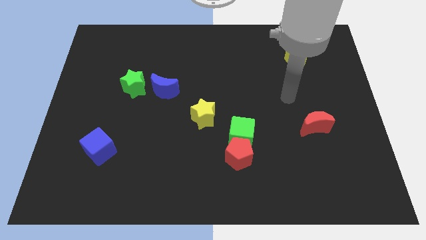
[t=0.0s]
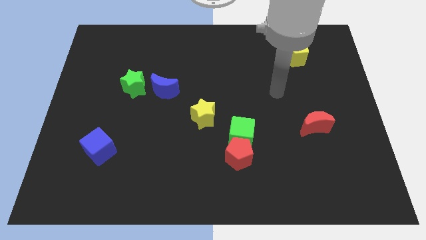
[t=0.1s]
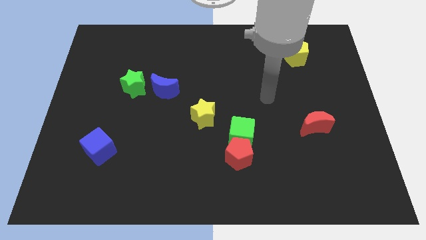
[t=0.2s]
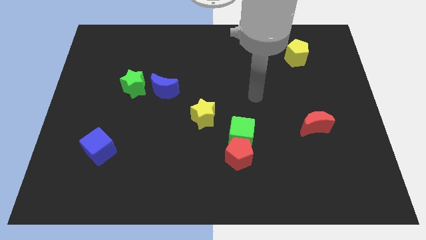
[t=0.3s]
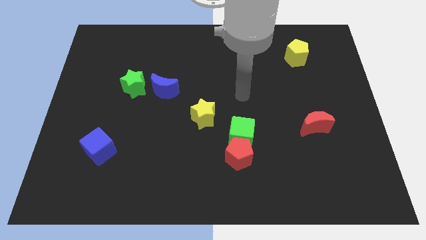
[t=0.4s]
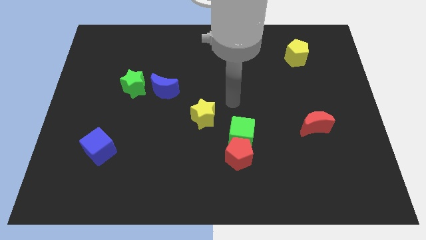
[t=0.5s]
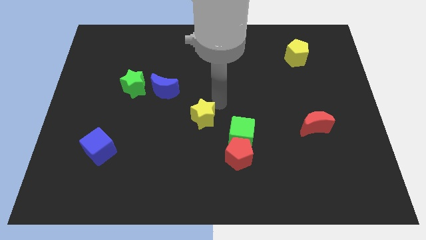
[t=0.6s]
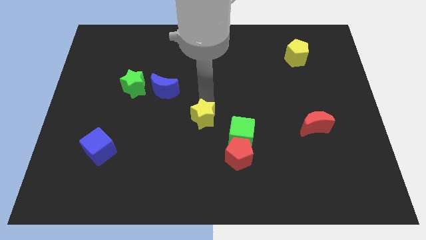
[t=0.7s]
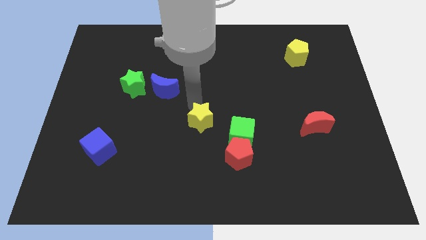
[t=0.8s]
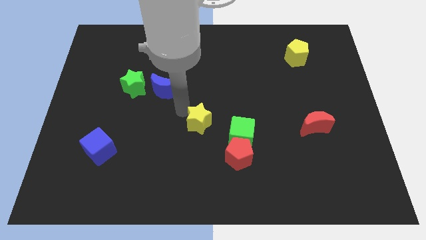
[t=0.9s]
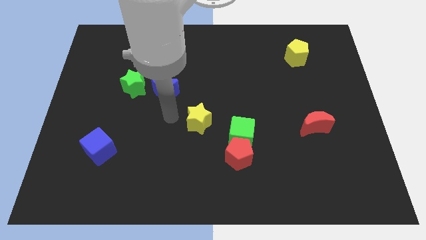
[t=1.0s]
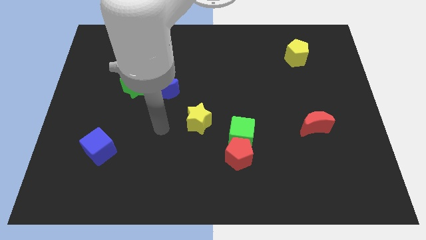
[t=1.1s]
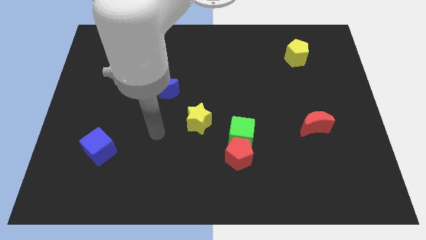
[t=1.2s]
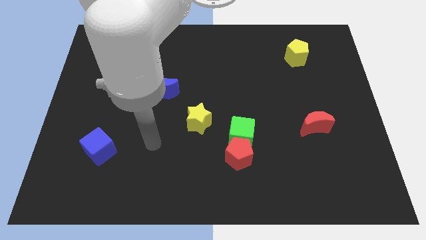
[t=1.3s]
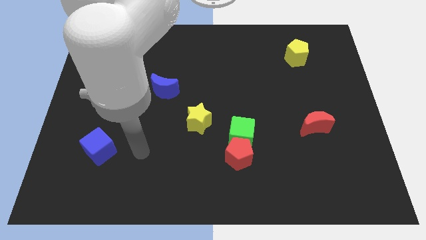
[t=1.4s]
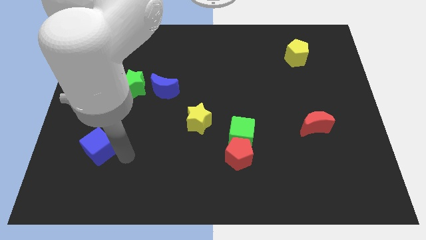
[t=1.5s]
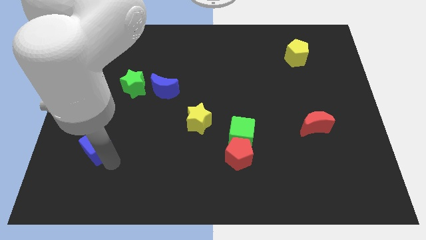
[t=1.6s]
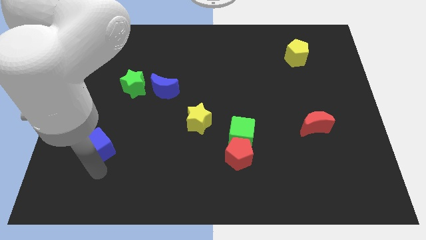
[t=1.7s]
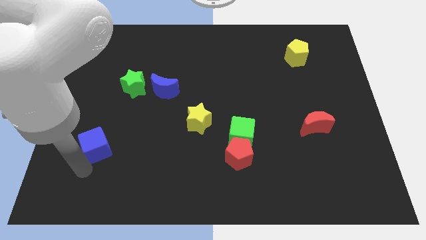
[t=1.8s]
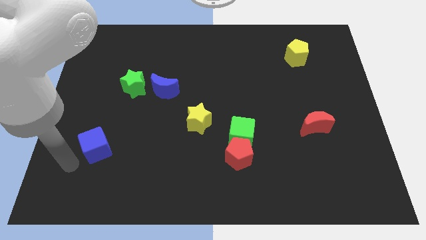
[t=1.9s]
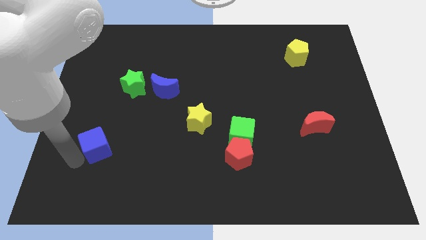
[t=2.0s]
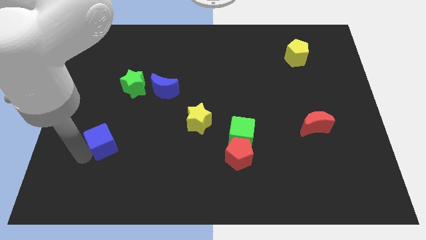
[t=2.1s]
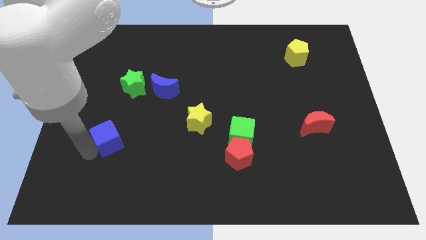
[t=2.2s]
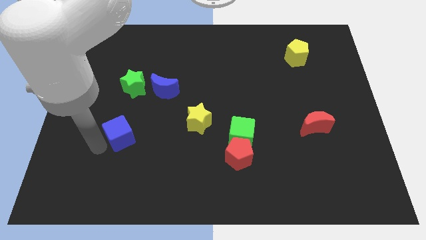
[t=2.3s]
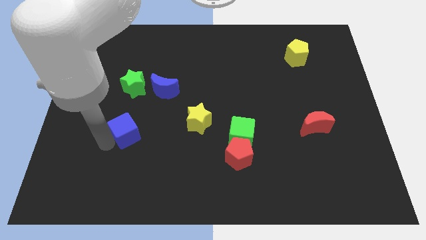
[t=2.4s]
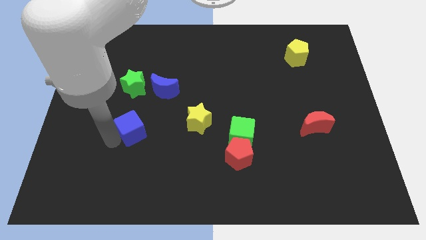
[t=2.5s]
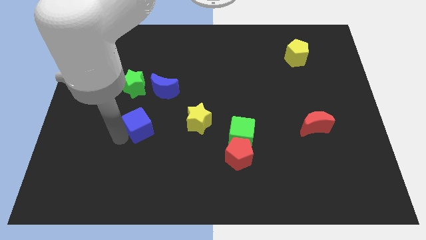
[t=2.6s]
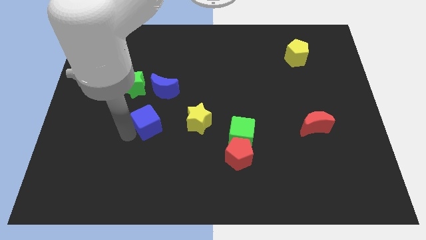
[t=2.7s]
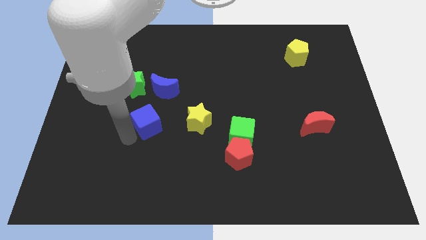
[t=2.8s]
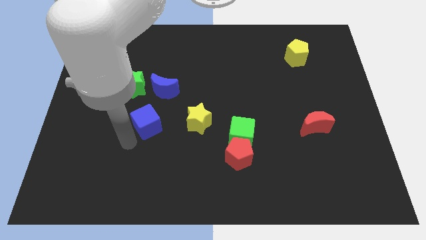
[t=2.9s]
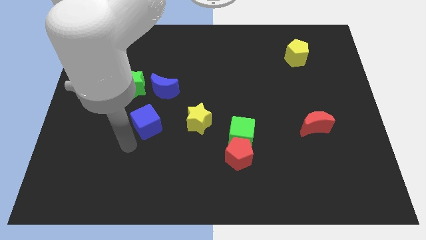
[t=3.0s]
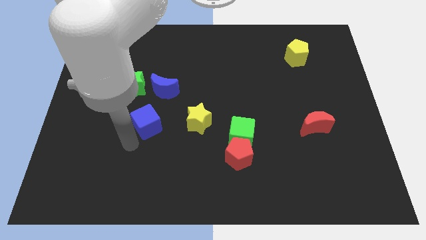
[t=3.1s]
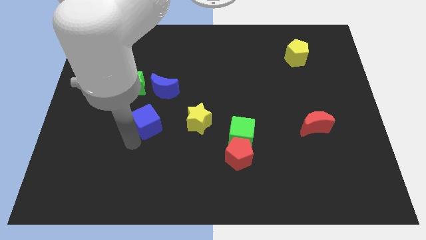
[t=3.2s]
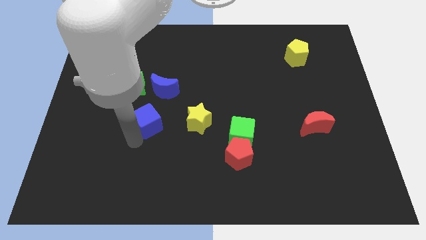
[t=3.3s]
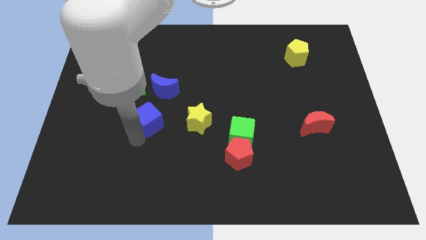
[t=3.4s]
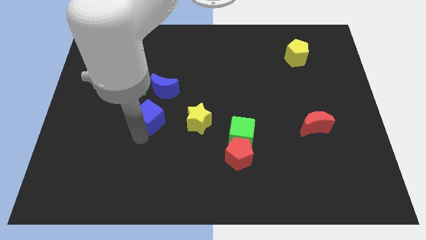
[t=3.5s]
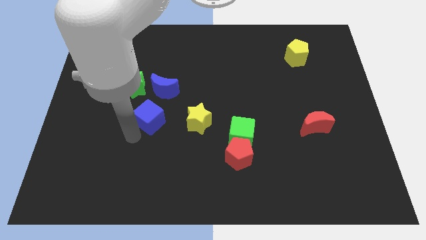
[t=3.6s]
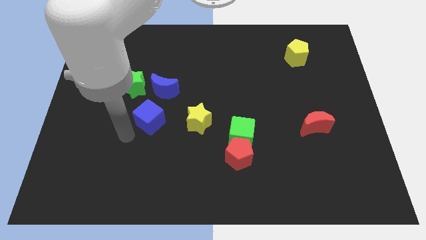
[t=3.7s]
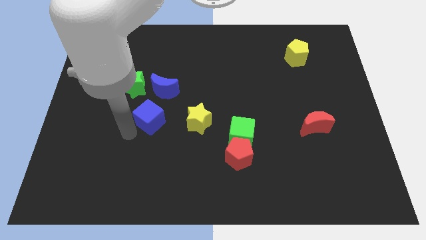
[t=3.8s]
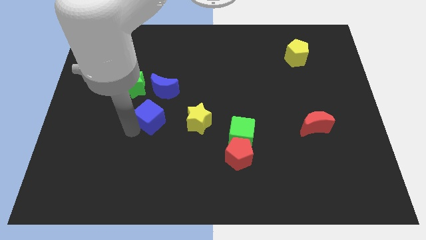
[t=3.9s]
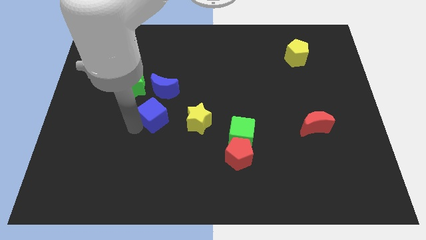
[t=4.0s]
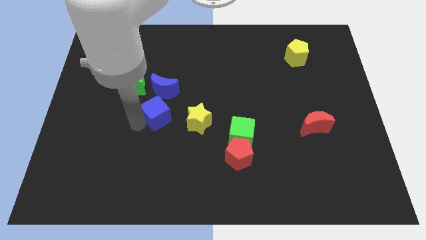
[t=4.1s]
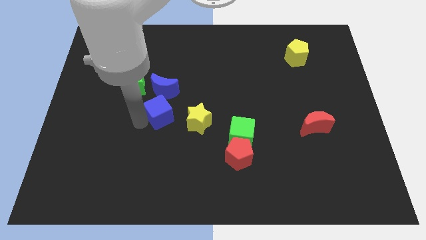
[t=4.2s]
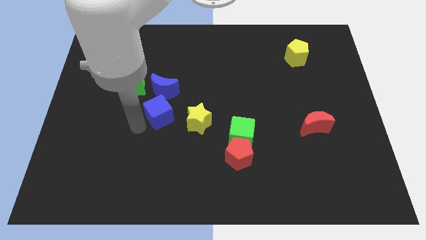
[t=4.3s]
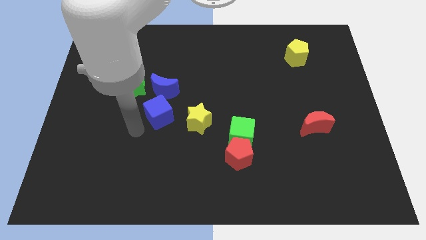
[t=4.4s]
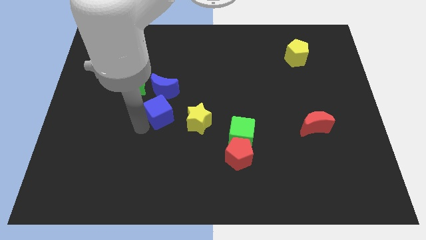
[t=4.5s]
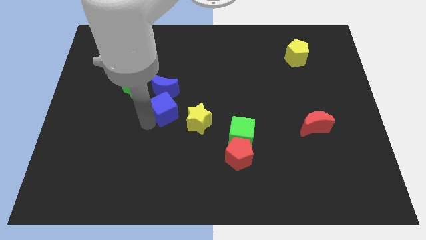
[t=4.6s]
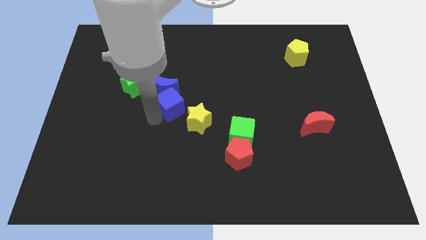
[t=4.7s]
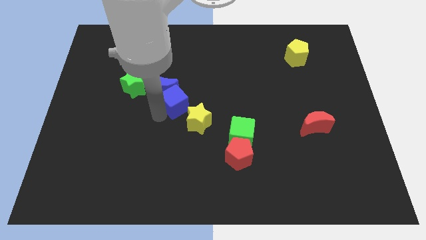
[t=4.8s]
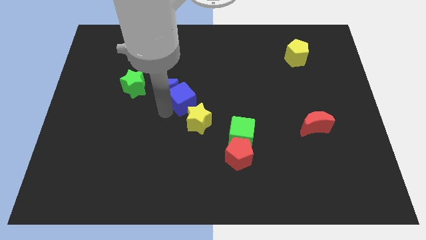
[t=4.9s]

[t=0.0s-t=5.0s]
slide the blue cube diagonally up and right

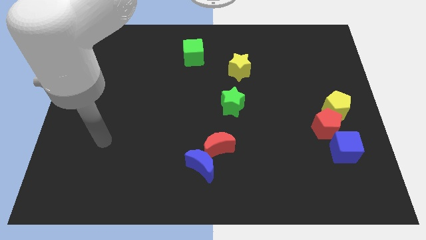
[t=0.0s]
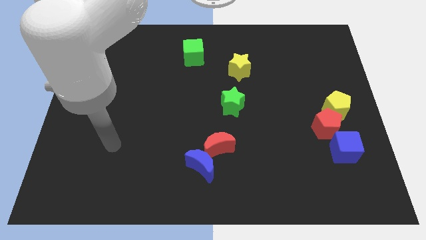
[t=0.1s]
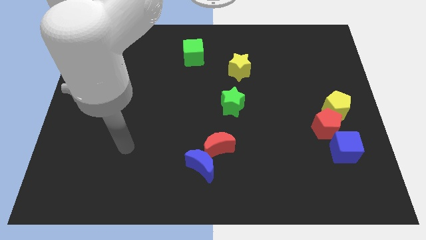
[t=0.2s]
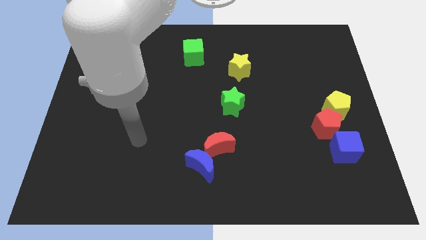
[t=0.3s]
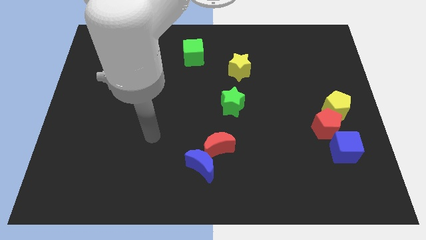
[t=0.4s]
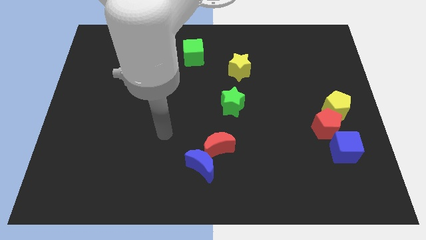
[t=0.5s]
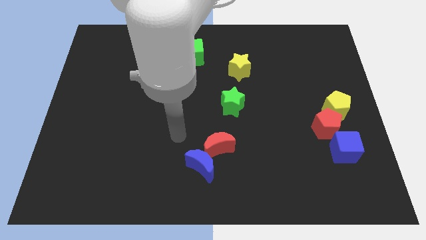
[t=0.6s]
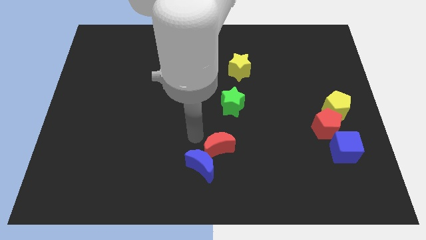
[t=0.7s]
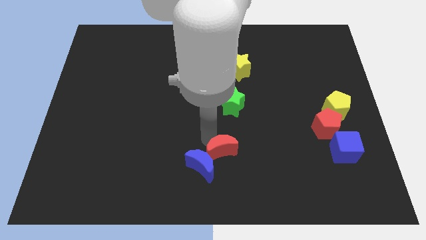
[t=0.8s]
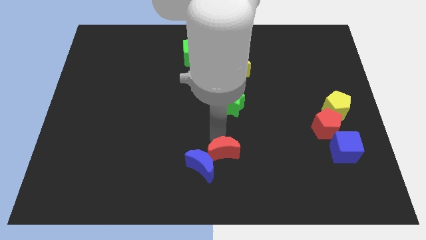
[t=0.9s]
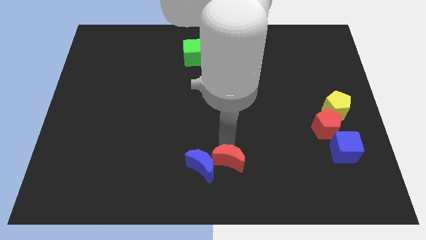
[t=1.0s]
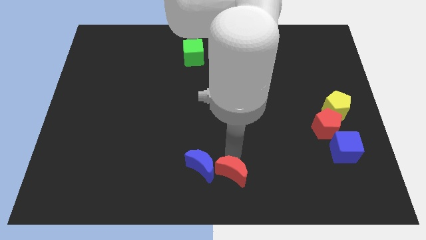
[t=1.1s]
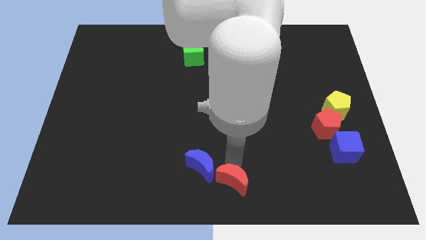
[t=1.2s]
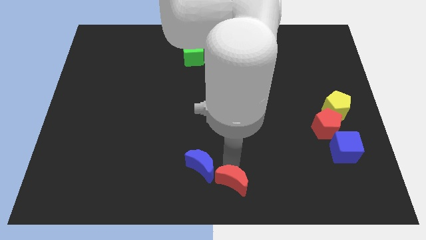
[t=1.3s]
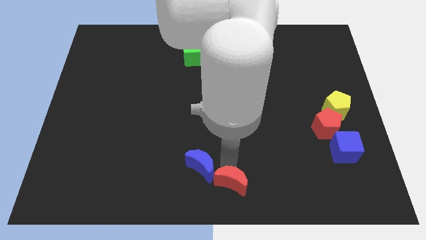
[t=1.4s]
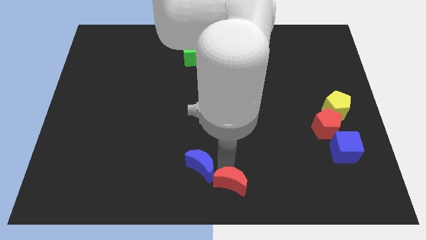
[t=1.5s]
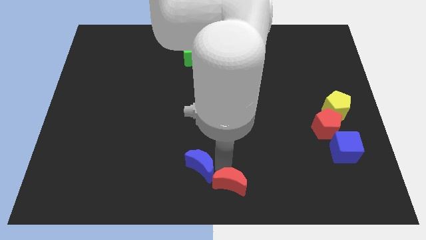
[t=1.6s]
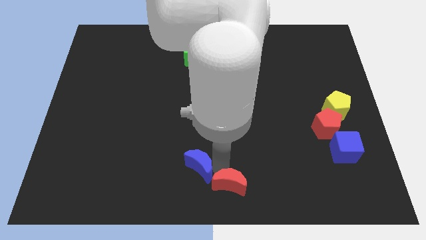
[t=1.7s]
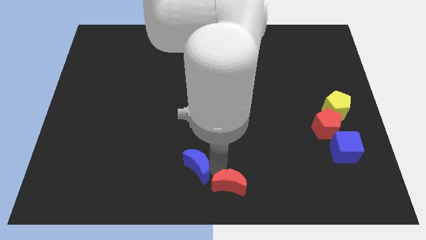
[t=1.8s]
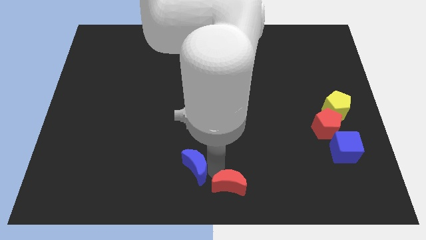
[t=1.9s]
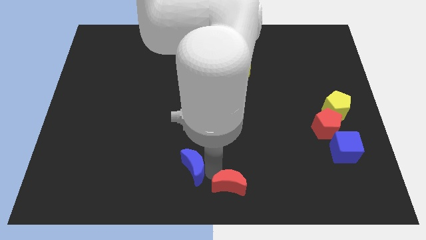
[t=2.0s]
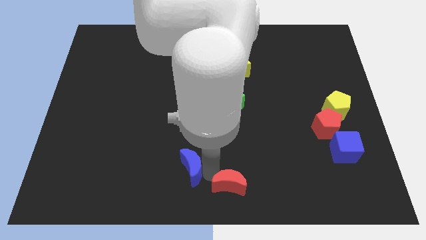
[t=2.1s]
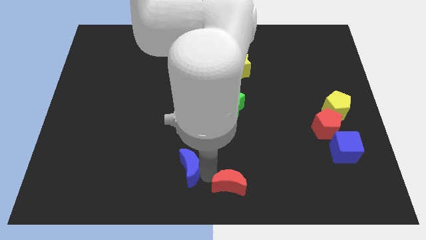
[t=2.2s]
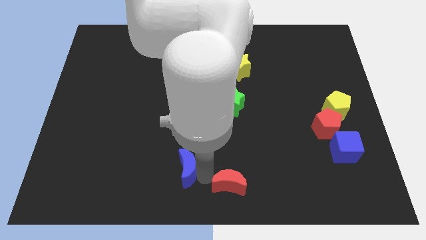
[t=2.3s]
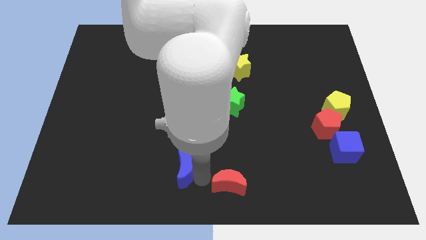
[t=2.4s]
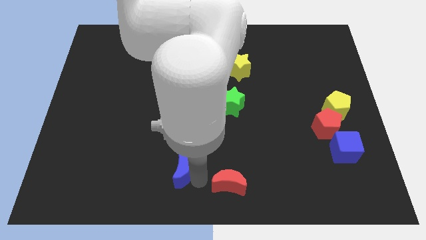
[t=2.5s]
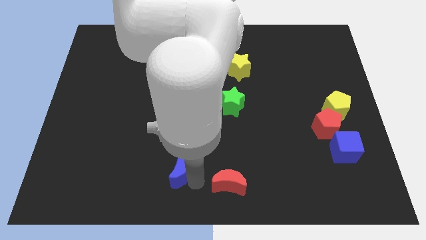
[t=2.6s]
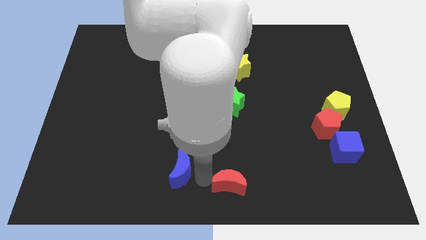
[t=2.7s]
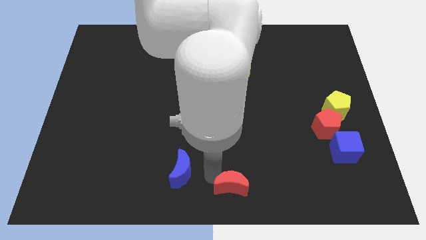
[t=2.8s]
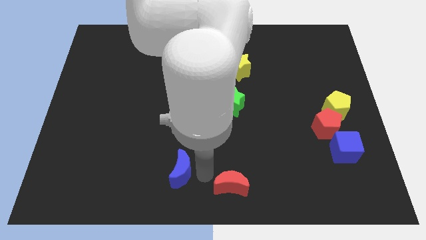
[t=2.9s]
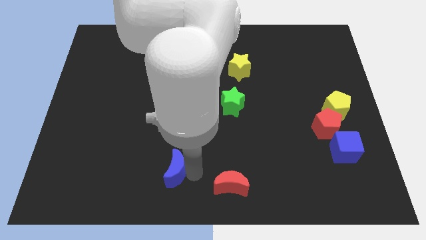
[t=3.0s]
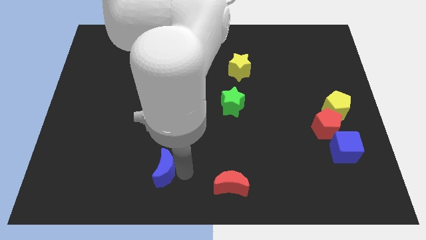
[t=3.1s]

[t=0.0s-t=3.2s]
push the blue moon left a bit

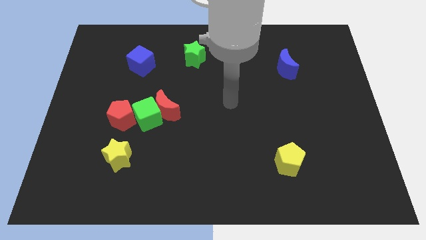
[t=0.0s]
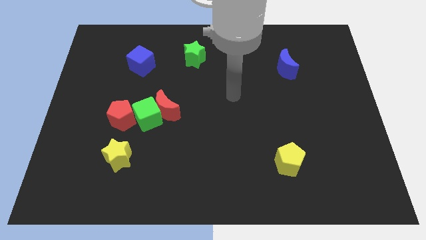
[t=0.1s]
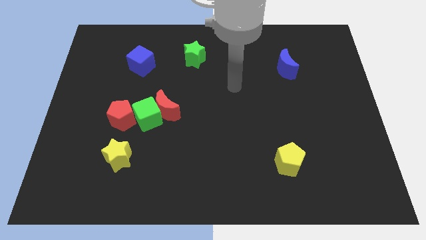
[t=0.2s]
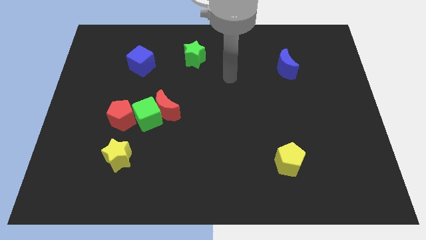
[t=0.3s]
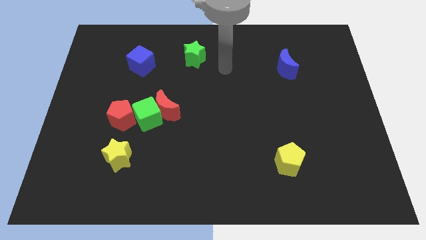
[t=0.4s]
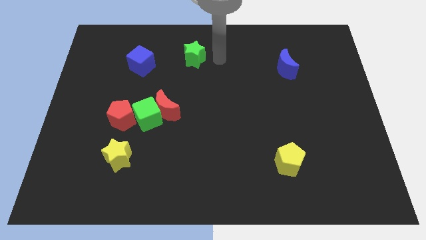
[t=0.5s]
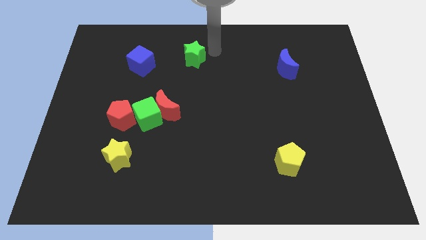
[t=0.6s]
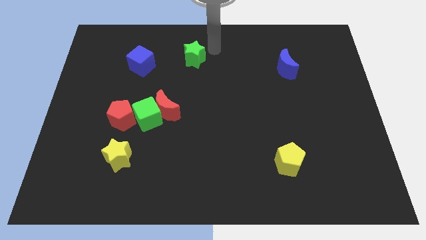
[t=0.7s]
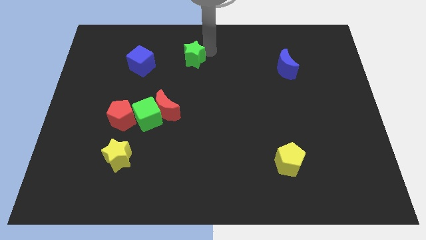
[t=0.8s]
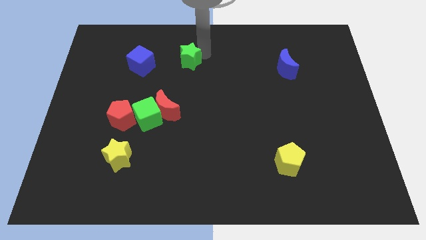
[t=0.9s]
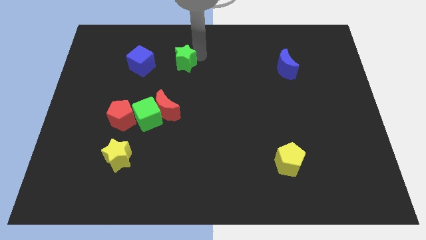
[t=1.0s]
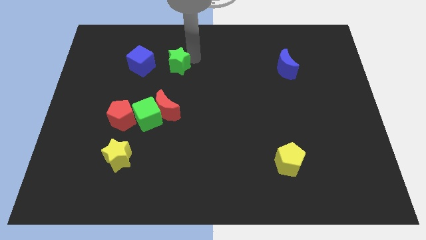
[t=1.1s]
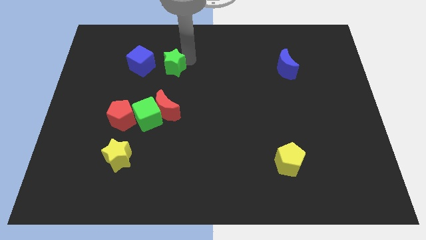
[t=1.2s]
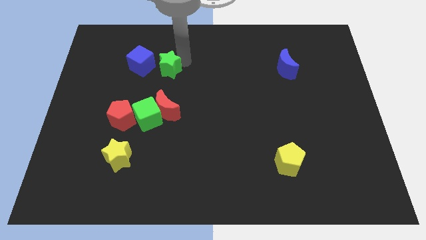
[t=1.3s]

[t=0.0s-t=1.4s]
move the green star down and then left somewhat
